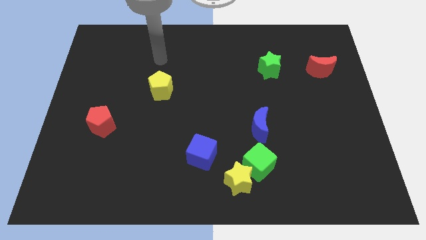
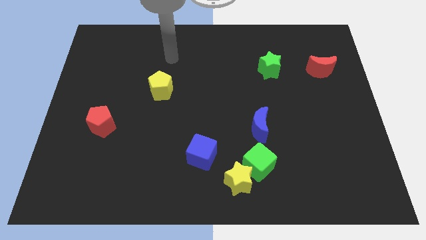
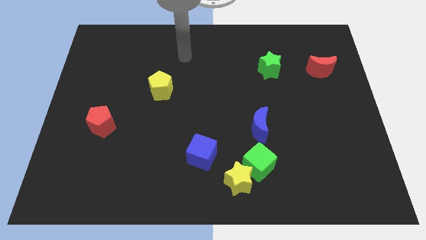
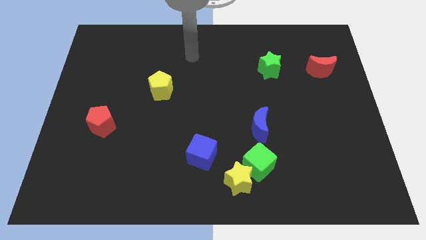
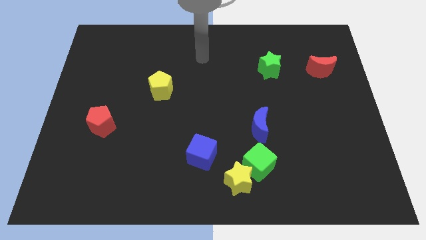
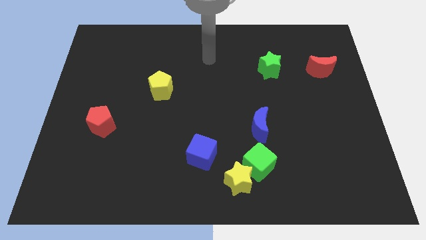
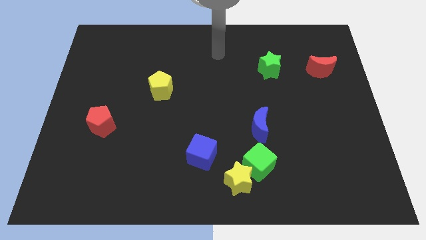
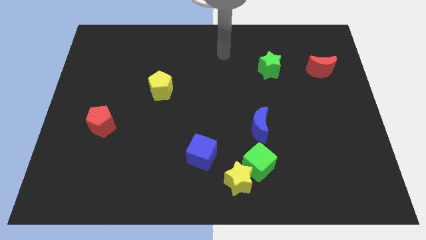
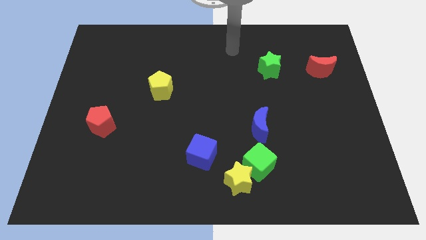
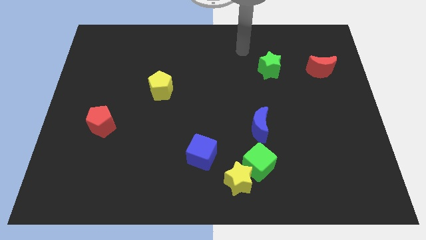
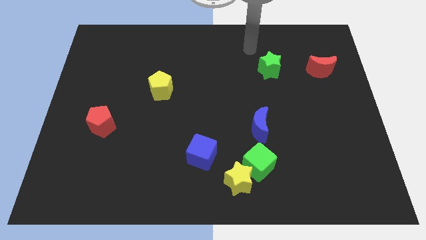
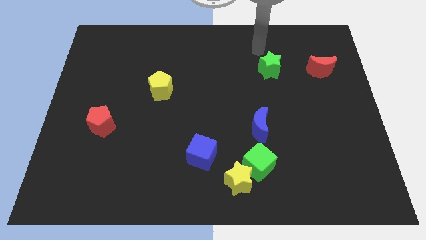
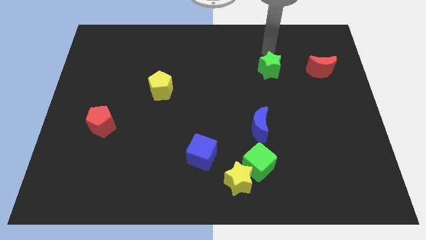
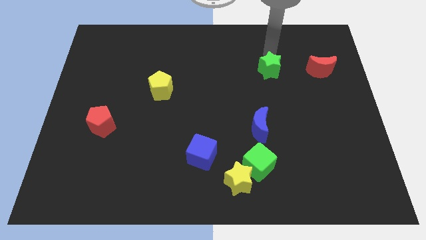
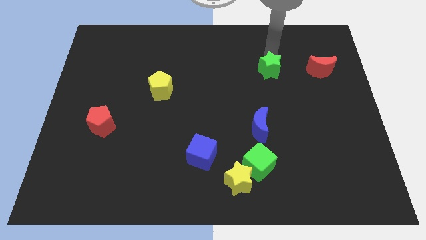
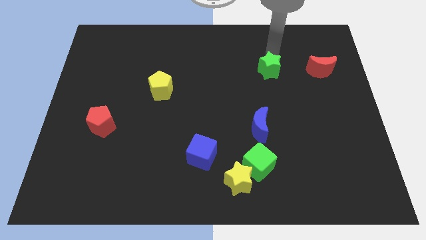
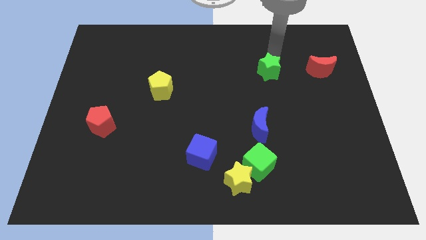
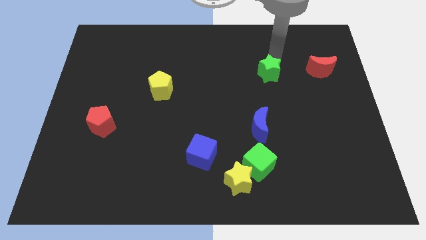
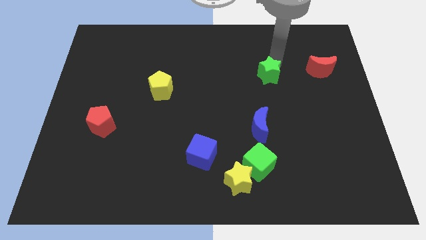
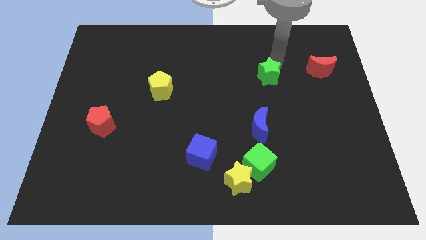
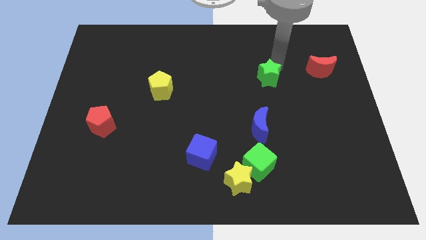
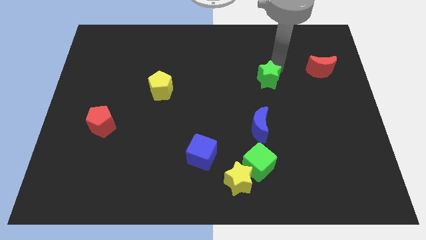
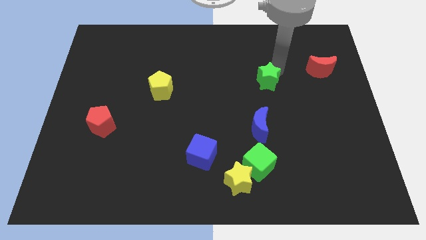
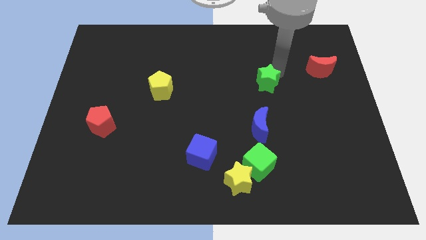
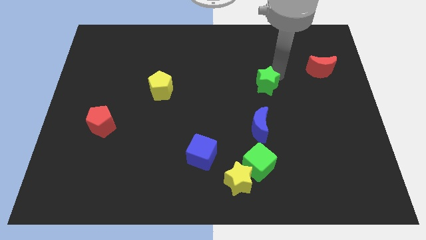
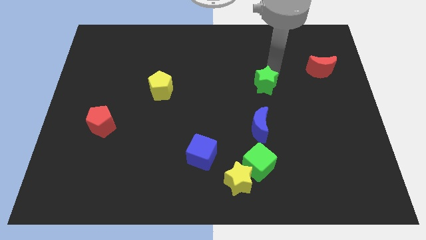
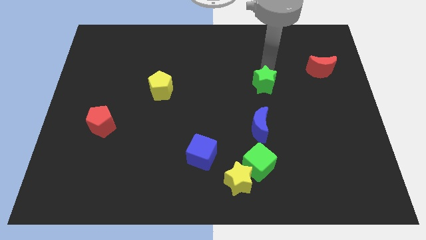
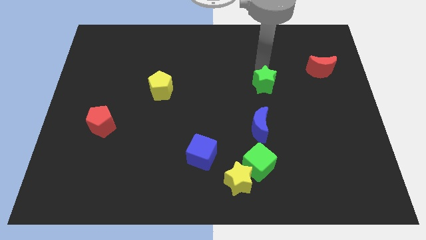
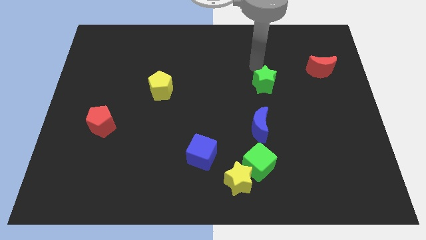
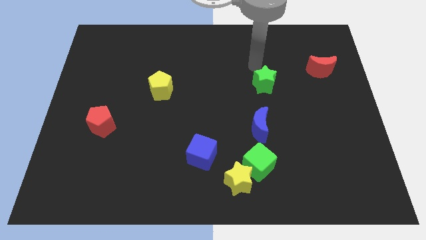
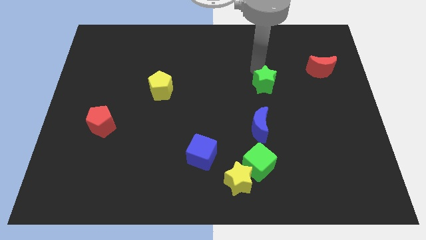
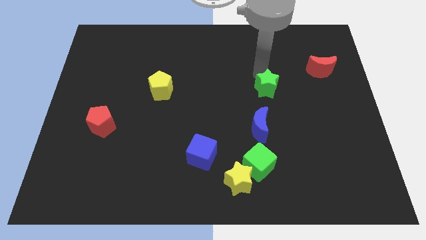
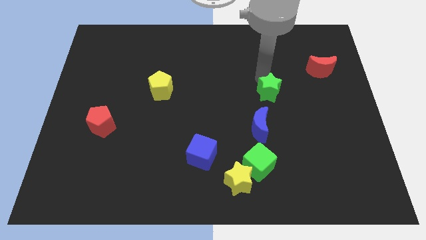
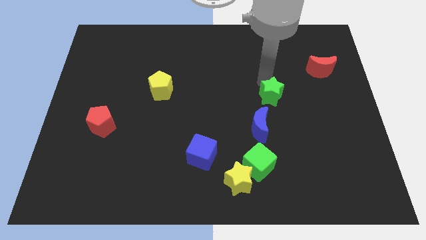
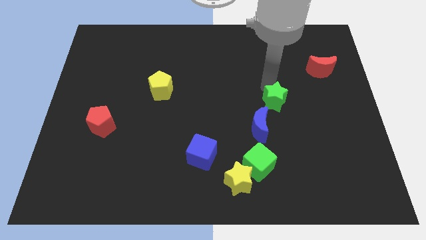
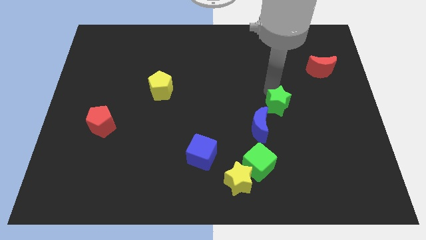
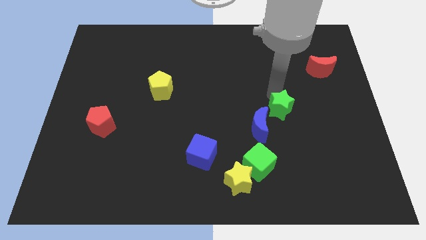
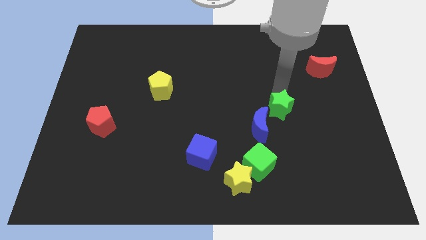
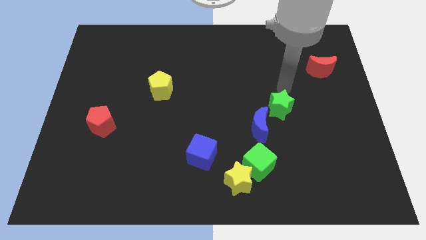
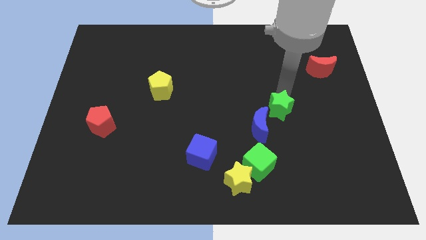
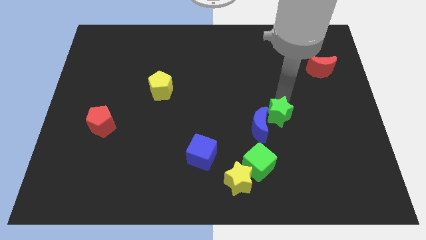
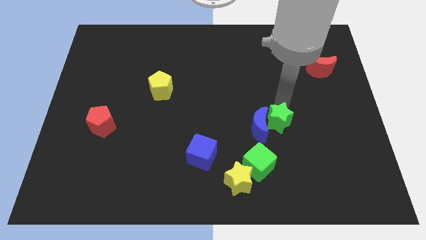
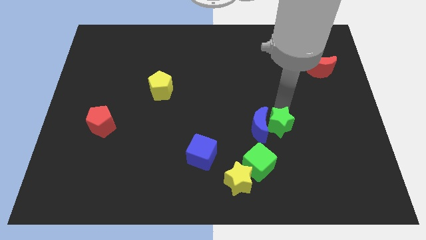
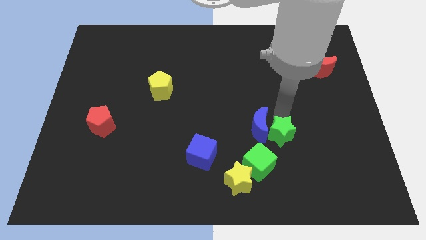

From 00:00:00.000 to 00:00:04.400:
push the green star down

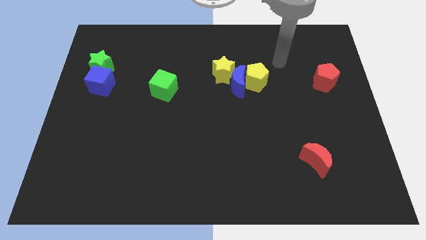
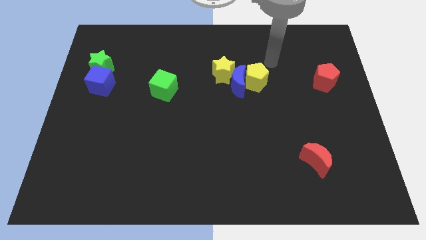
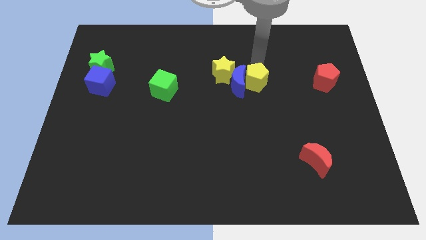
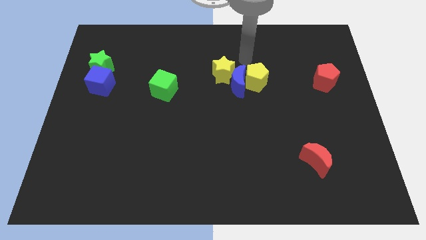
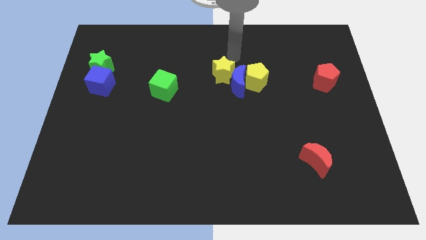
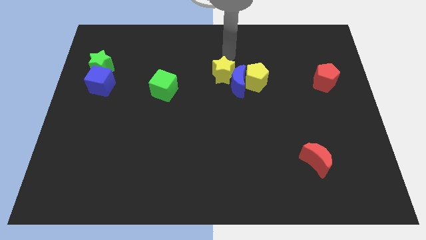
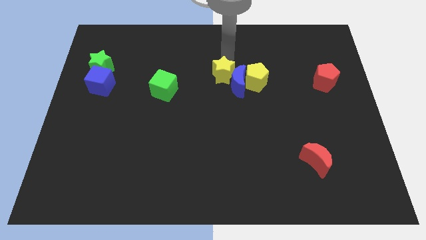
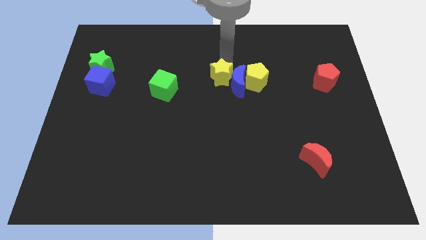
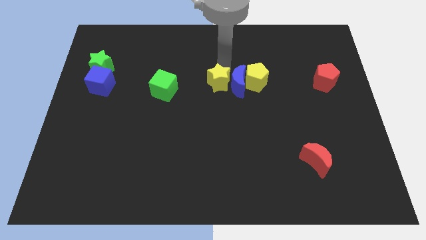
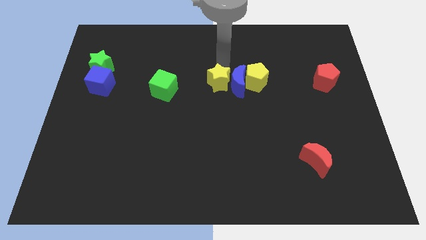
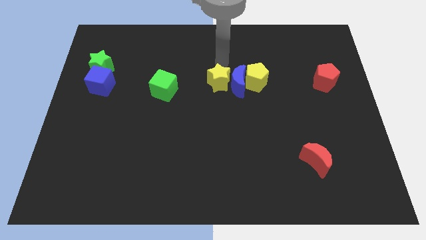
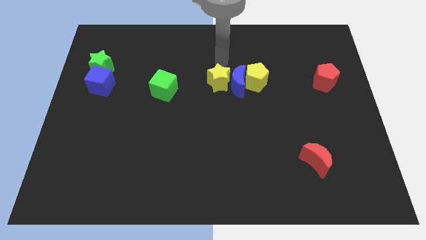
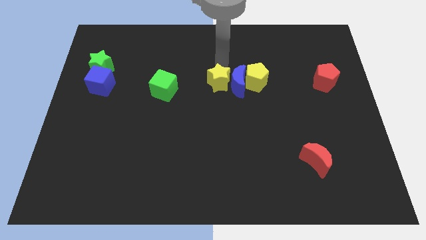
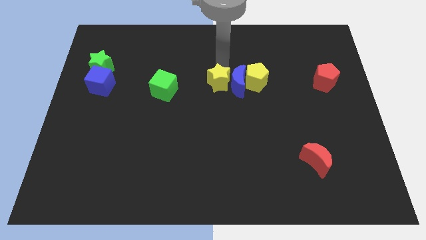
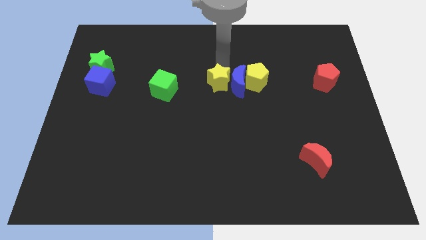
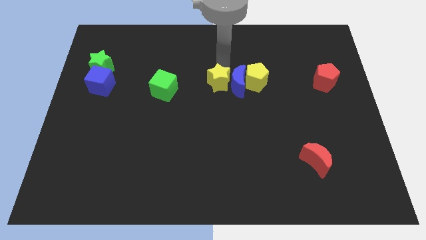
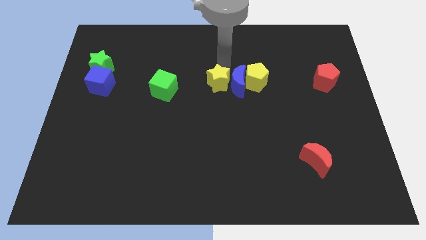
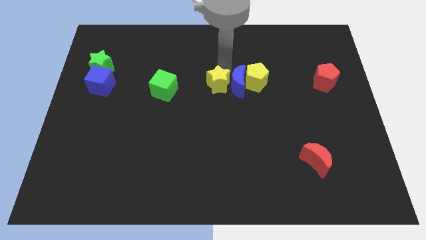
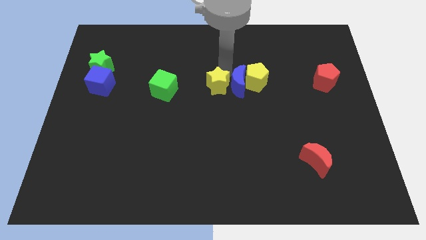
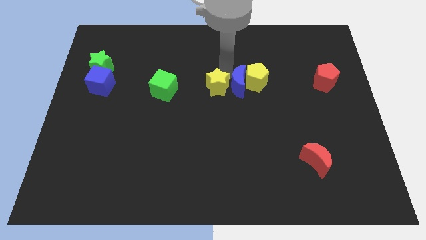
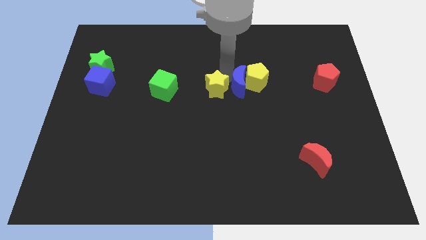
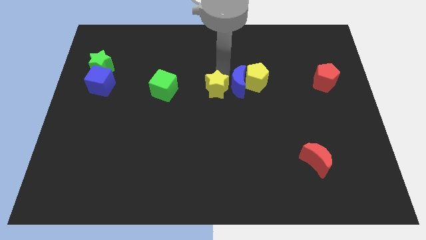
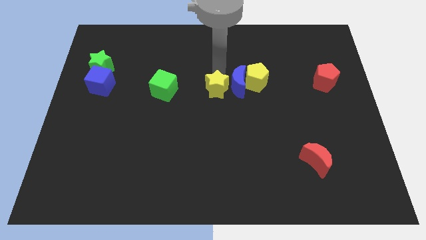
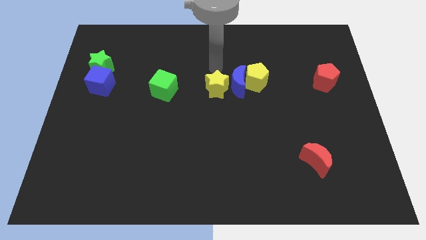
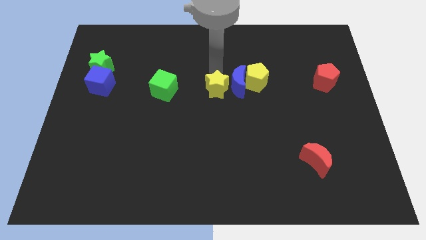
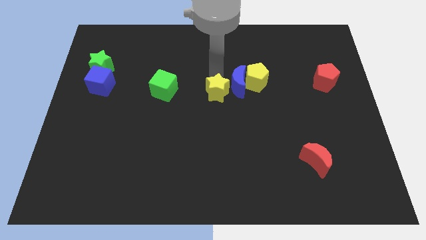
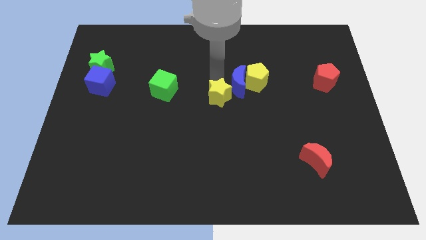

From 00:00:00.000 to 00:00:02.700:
slightly push the yellow star downwards

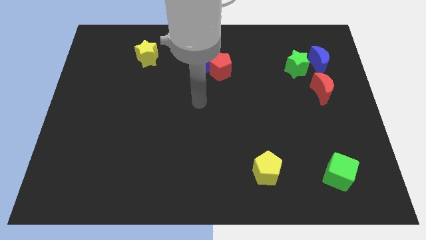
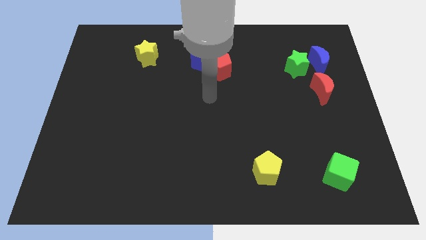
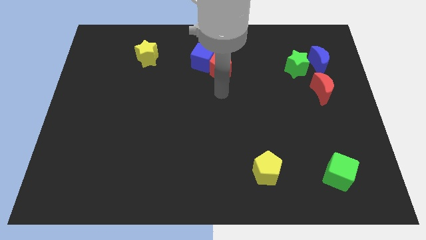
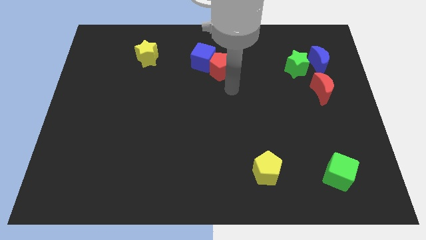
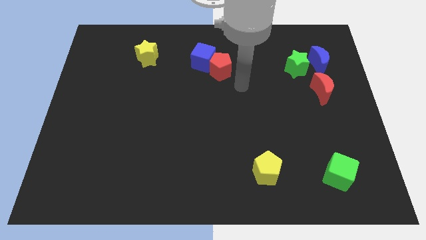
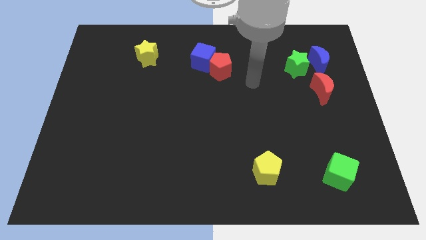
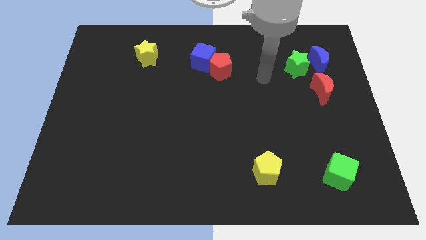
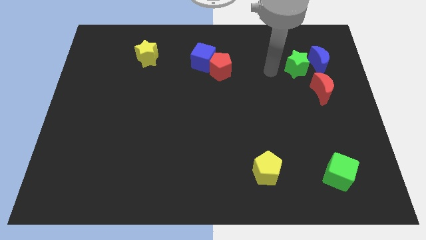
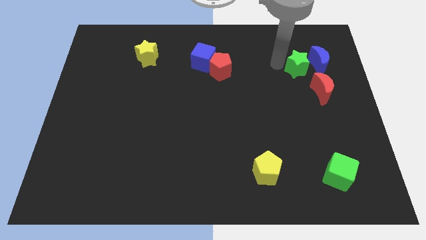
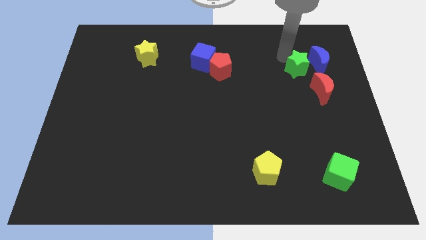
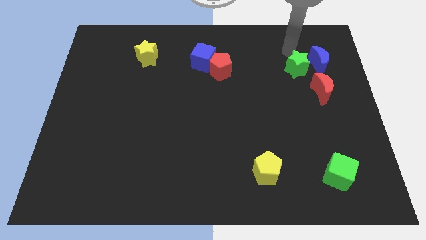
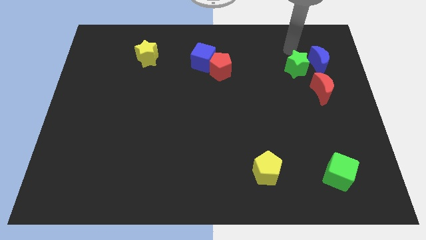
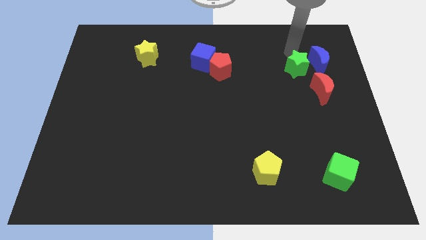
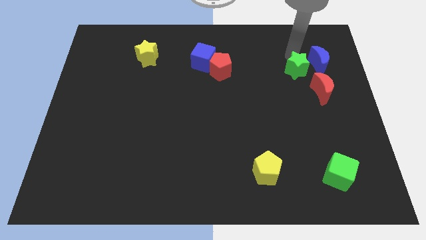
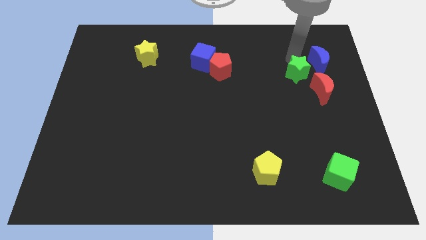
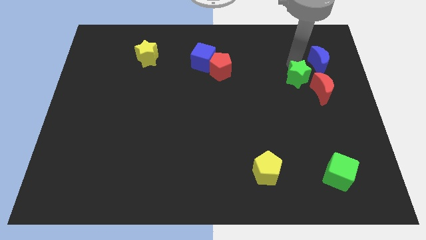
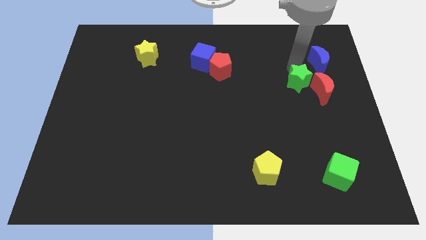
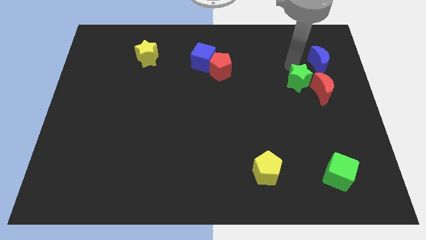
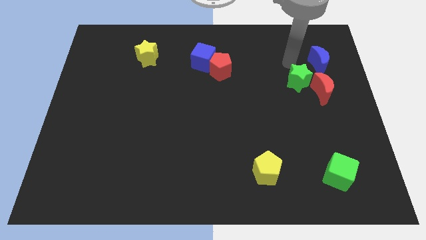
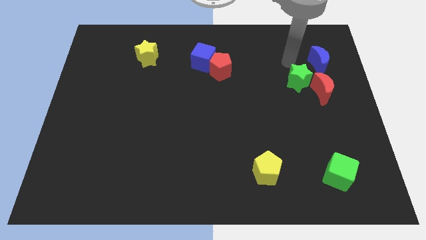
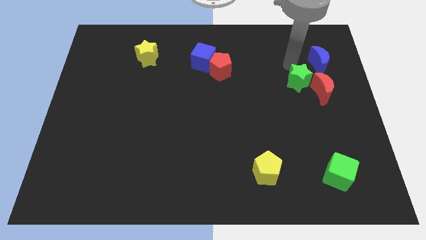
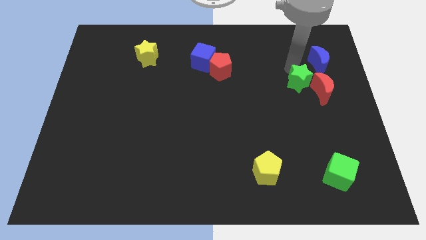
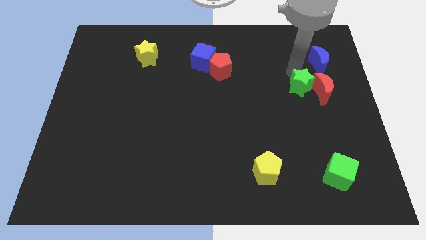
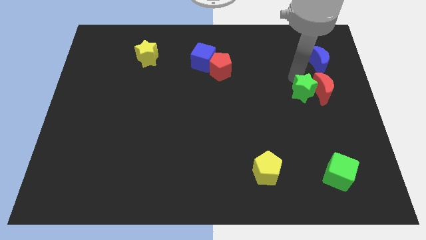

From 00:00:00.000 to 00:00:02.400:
slightly slide the green star downwards
